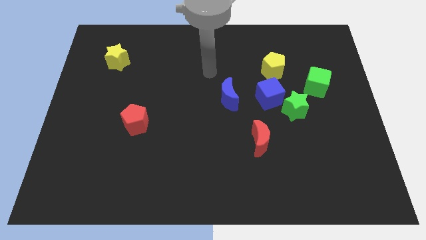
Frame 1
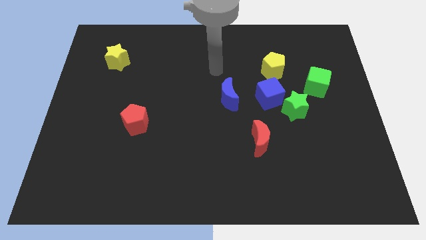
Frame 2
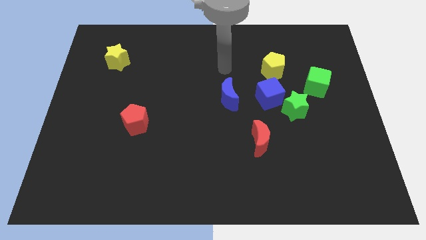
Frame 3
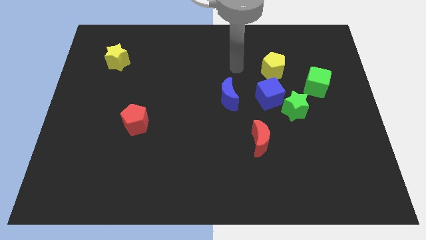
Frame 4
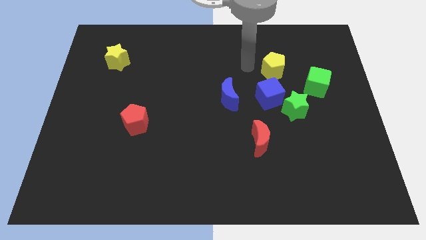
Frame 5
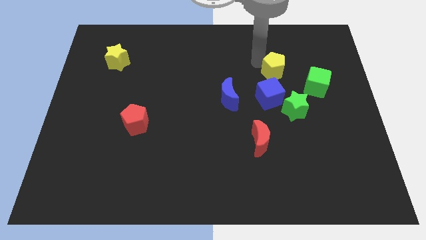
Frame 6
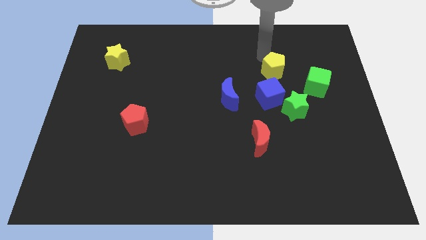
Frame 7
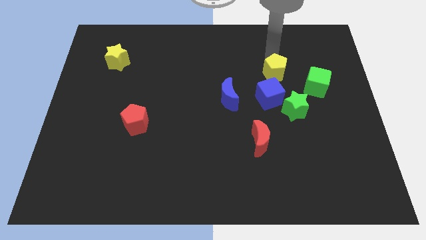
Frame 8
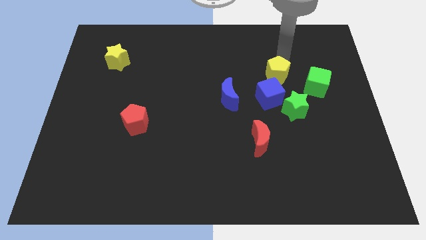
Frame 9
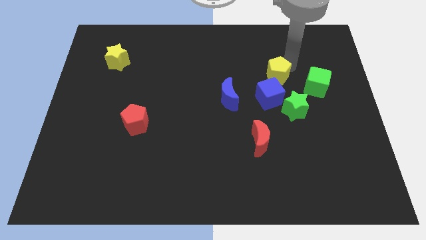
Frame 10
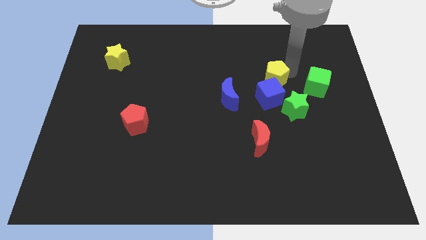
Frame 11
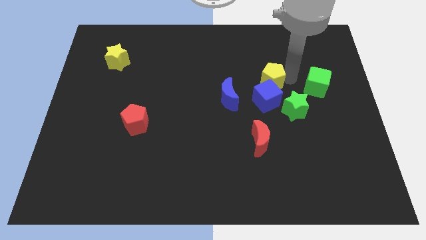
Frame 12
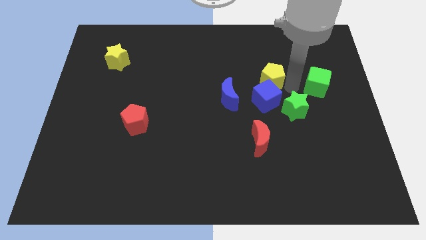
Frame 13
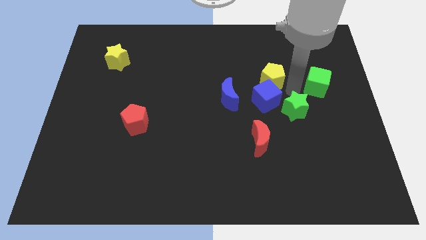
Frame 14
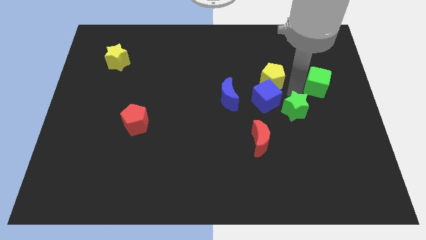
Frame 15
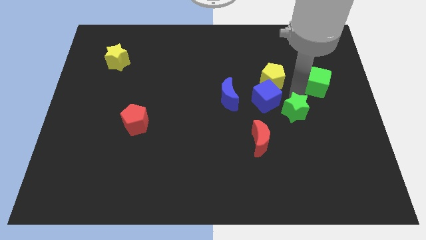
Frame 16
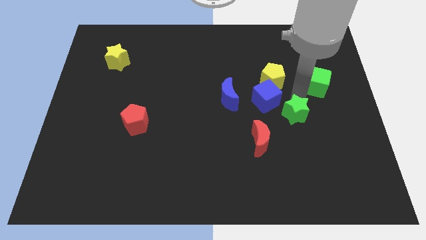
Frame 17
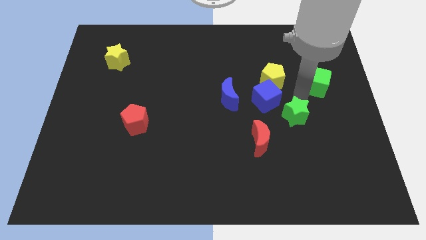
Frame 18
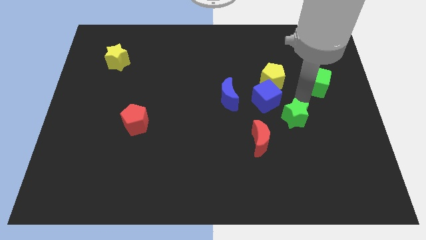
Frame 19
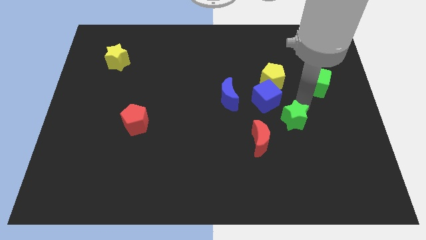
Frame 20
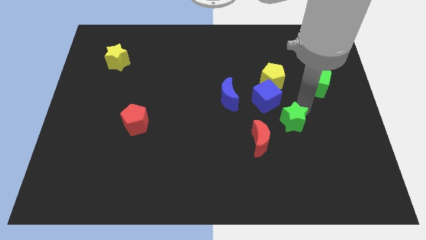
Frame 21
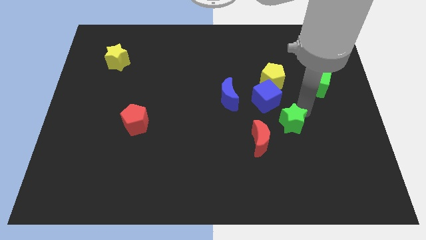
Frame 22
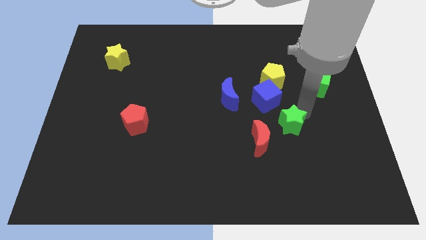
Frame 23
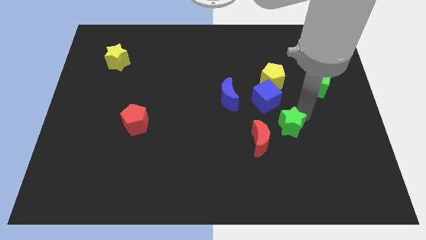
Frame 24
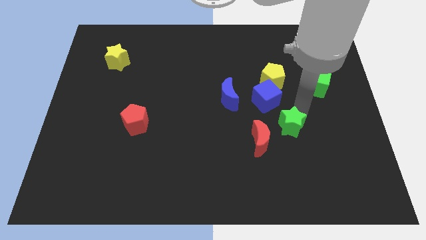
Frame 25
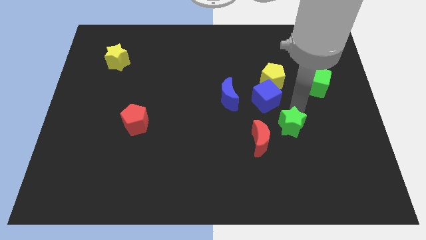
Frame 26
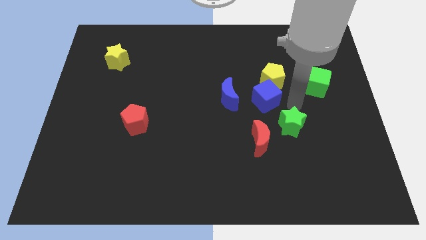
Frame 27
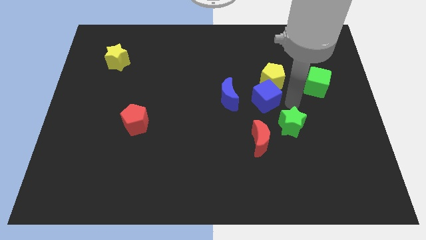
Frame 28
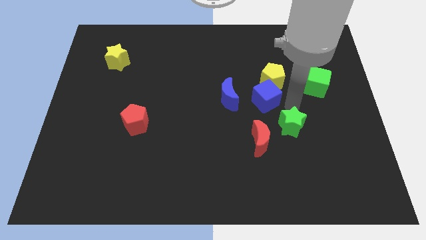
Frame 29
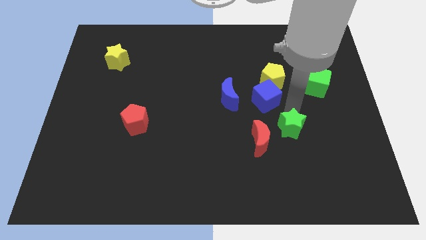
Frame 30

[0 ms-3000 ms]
separate the green star from the blue cube and green cube

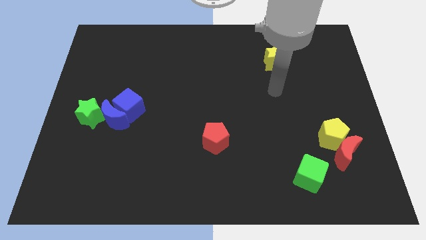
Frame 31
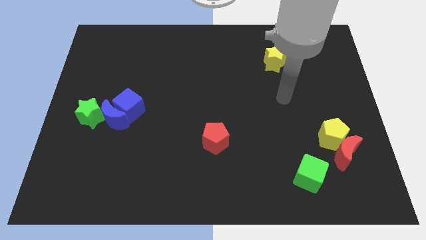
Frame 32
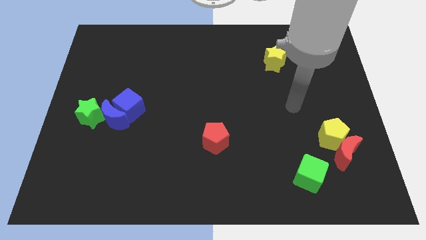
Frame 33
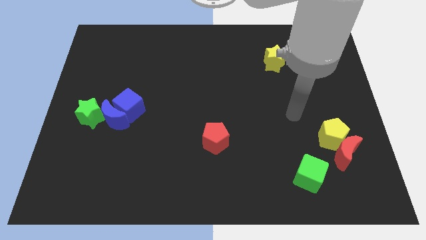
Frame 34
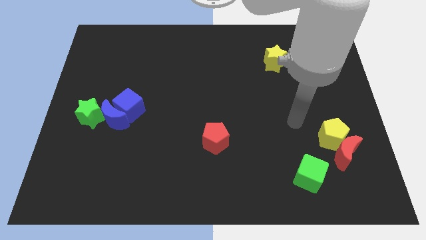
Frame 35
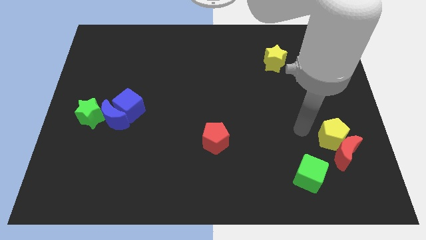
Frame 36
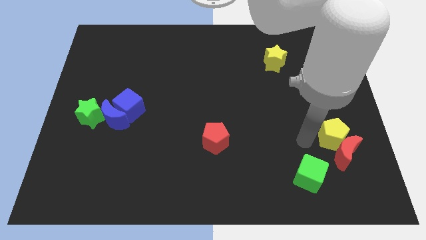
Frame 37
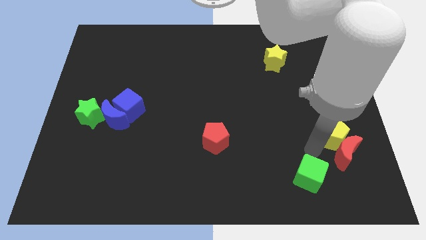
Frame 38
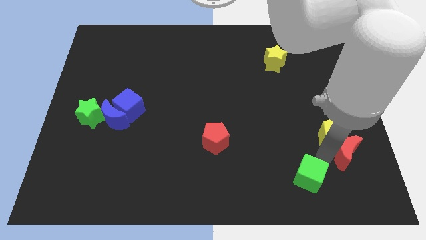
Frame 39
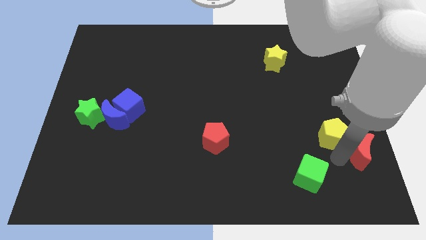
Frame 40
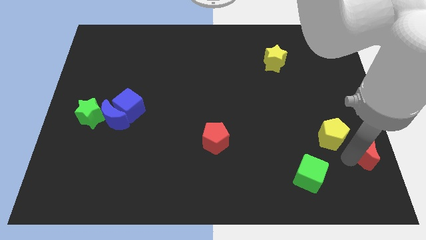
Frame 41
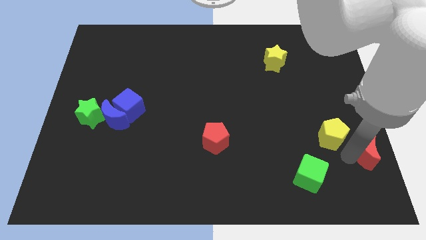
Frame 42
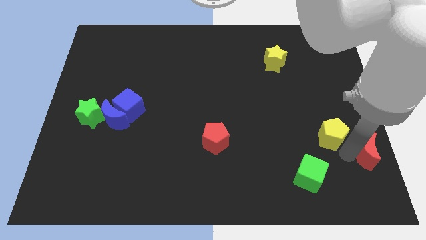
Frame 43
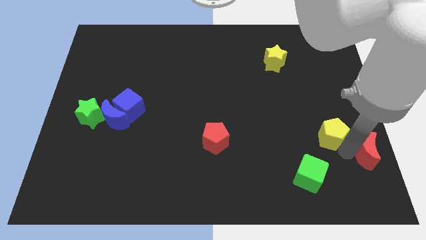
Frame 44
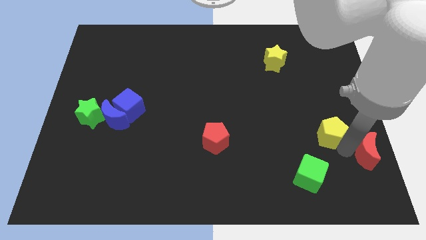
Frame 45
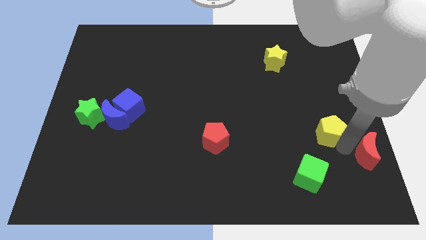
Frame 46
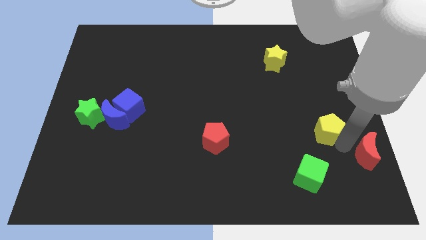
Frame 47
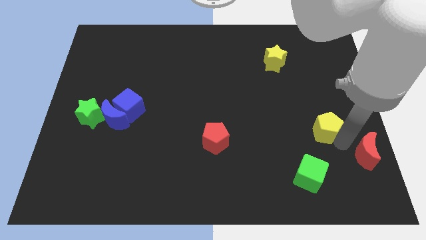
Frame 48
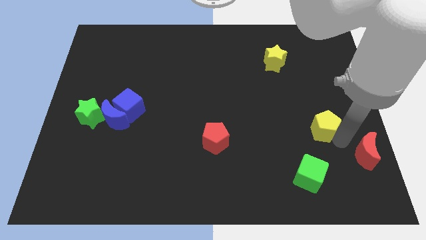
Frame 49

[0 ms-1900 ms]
move the yellow pentagon away from the red moon

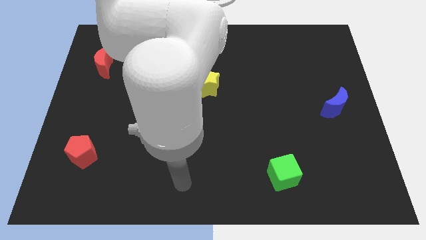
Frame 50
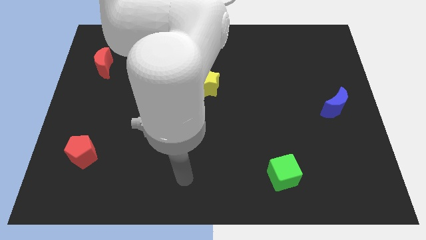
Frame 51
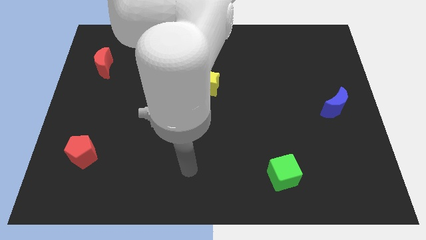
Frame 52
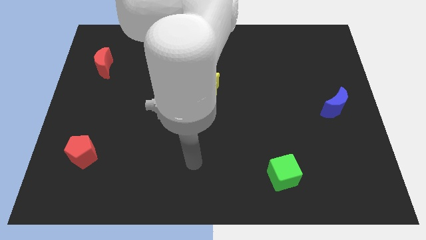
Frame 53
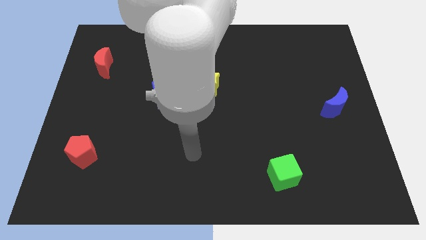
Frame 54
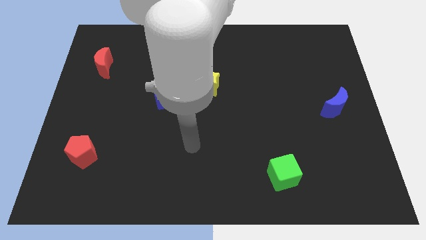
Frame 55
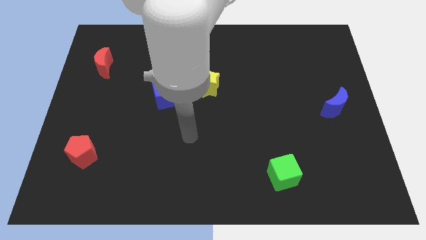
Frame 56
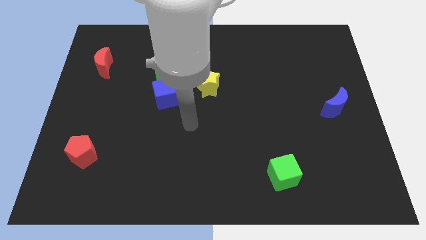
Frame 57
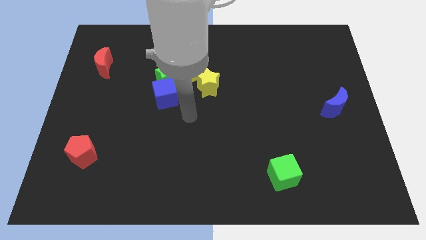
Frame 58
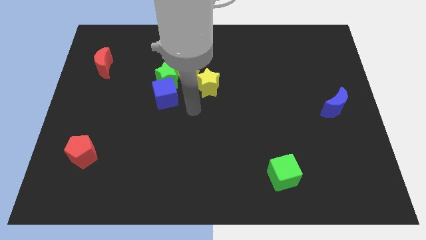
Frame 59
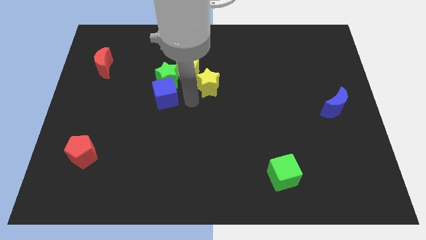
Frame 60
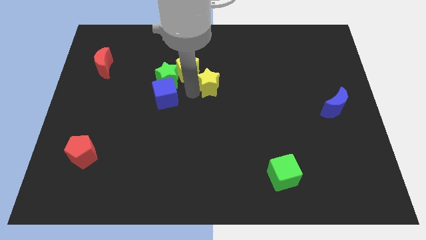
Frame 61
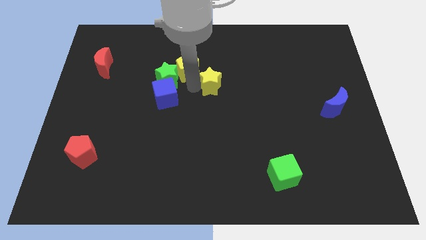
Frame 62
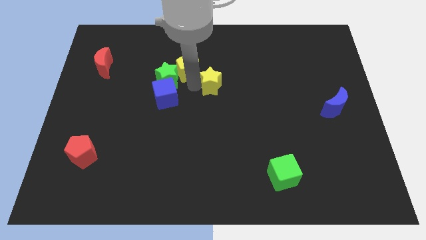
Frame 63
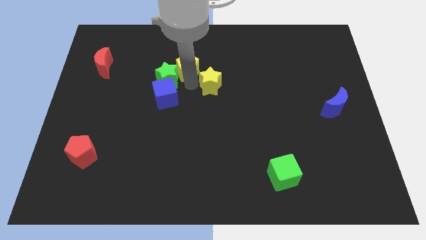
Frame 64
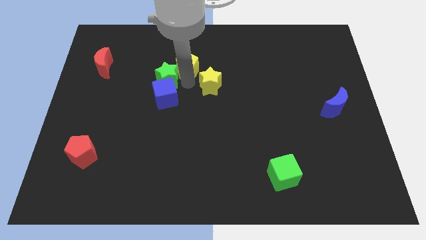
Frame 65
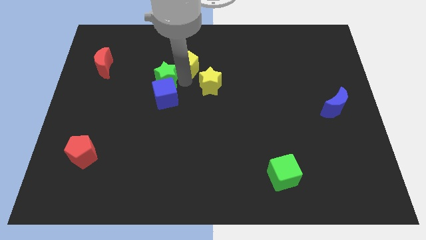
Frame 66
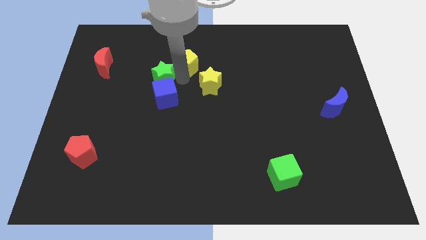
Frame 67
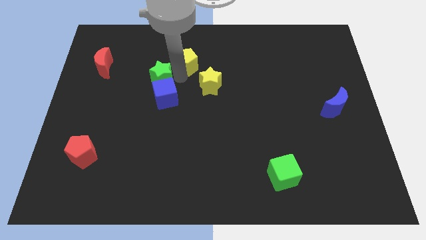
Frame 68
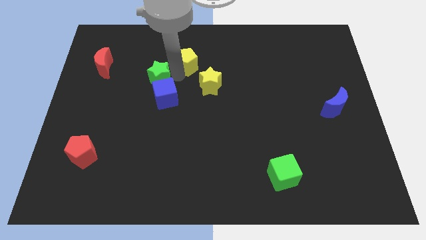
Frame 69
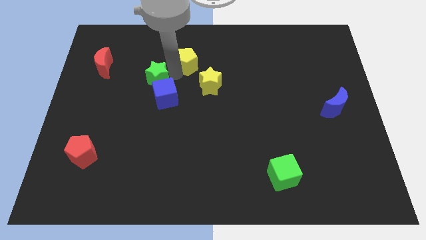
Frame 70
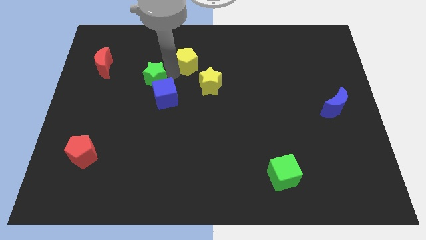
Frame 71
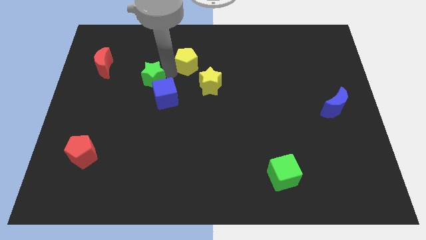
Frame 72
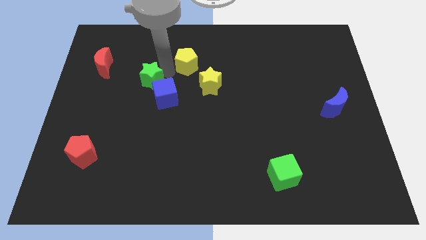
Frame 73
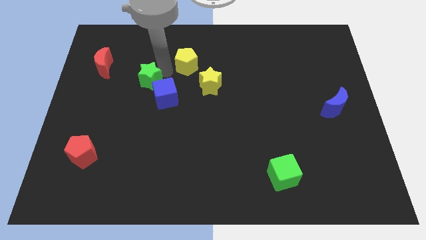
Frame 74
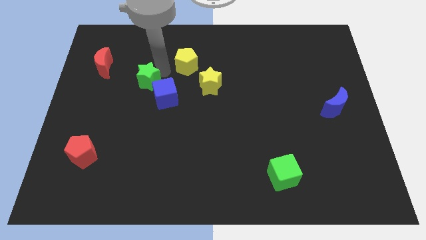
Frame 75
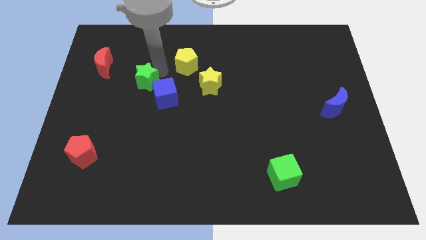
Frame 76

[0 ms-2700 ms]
pull the green star apart from the yellow pentagon, blue cube, and yellow star

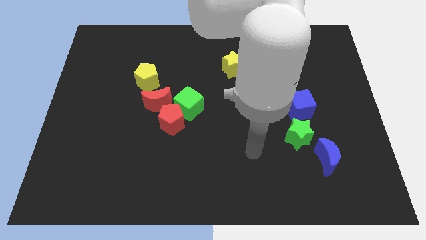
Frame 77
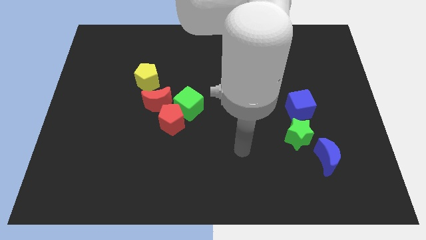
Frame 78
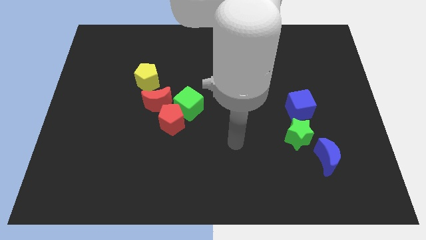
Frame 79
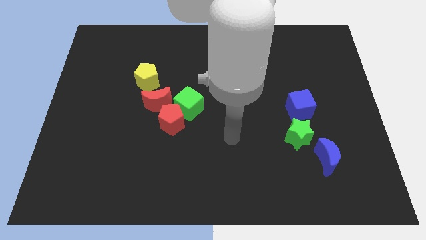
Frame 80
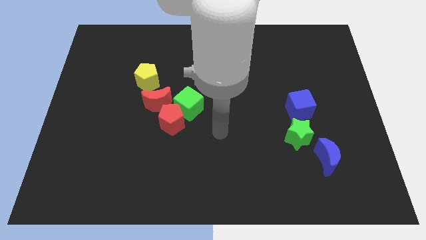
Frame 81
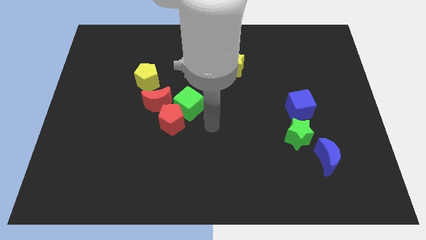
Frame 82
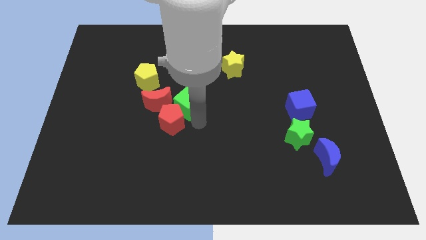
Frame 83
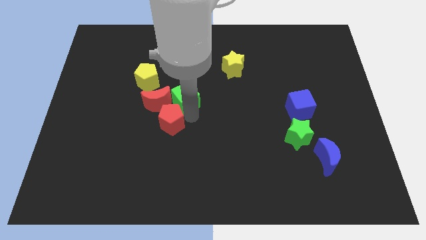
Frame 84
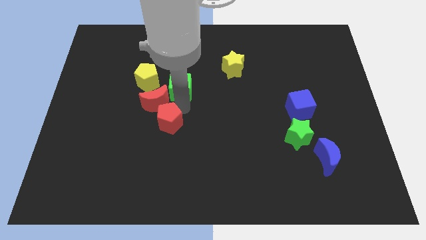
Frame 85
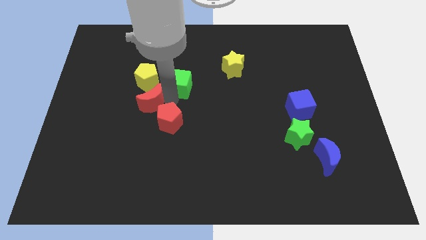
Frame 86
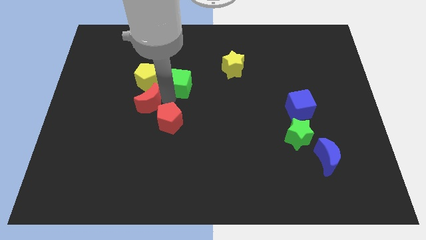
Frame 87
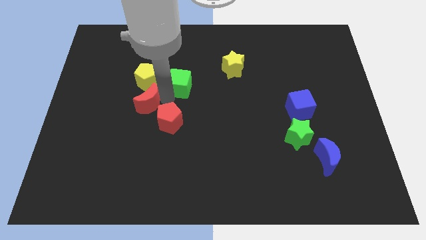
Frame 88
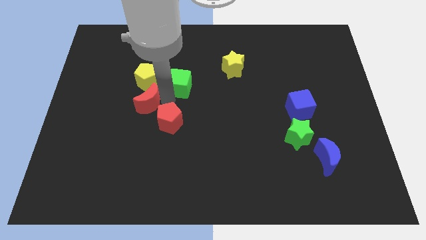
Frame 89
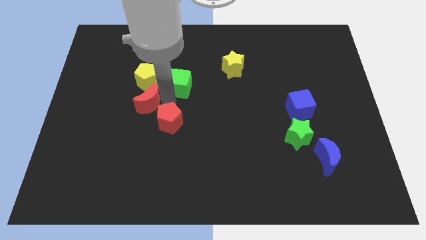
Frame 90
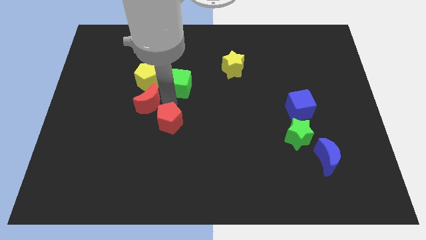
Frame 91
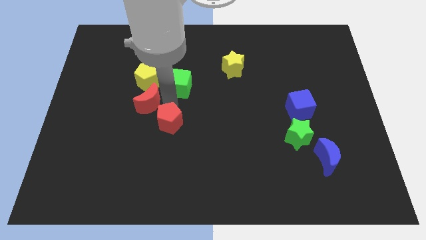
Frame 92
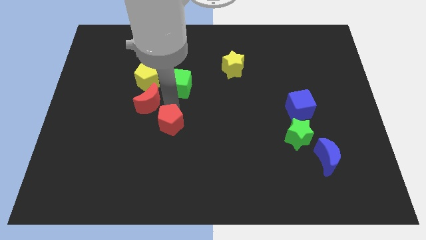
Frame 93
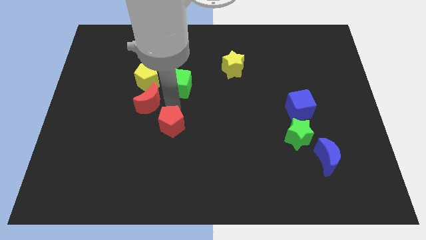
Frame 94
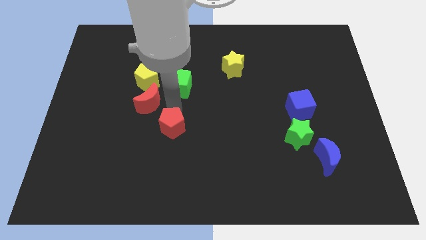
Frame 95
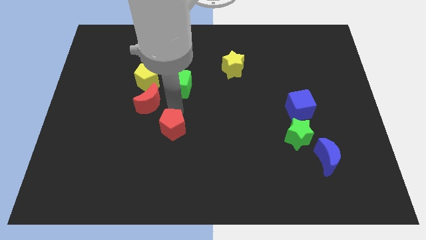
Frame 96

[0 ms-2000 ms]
separate the red pentagon from the green cube and red moon
